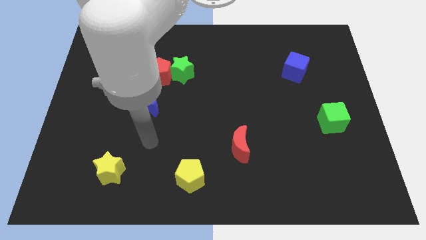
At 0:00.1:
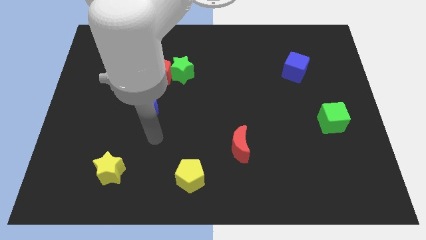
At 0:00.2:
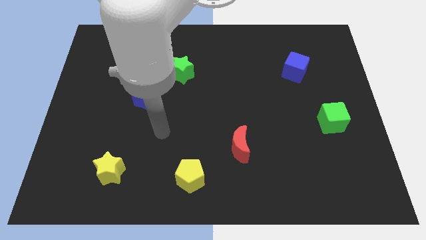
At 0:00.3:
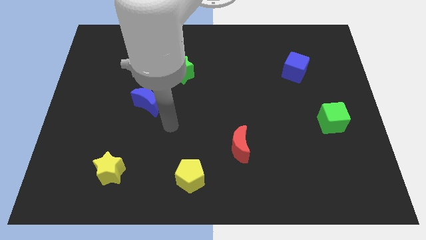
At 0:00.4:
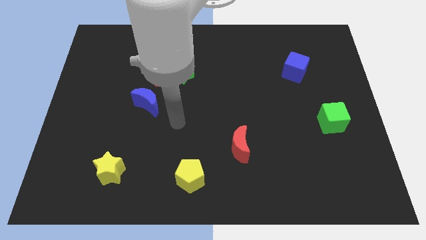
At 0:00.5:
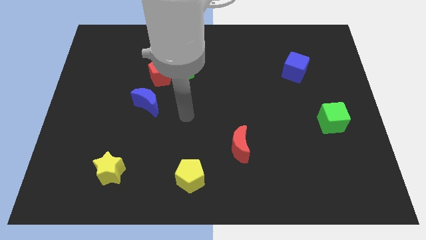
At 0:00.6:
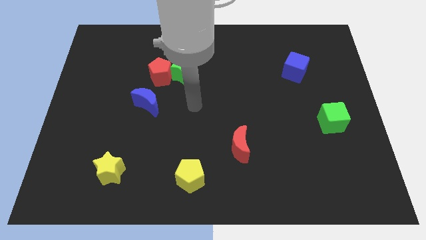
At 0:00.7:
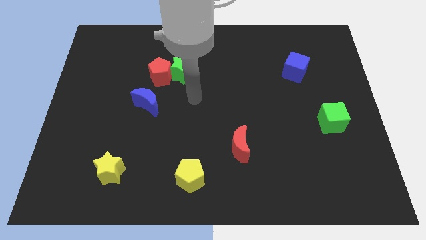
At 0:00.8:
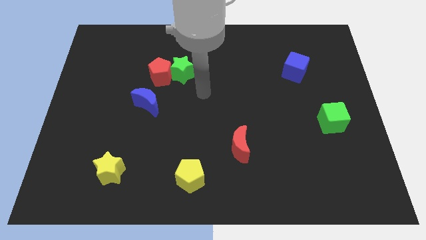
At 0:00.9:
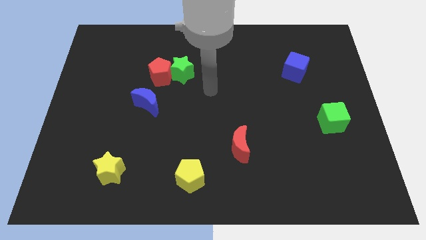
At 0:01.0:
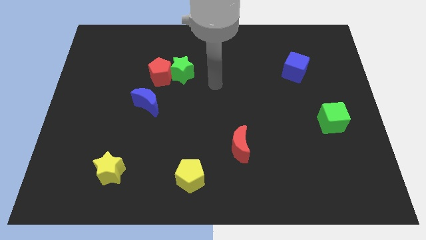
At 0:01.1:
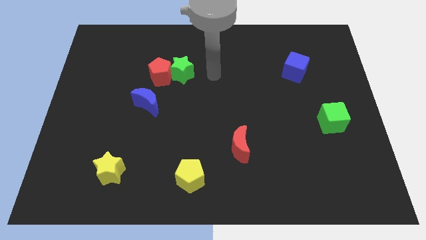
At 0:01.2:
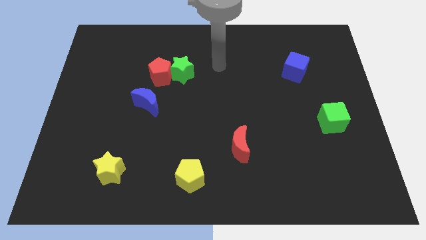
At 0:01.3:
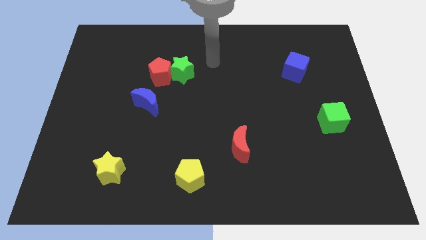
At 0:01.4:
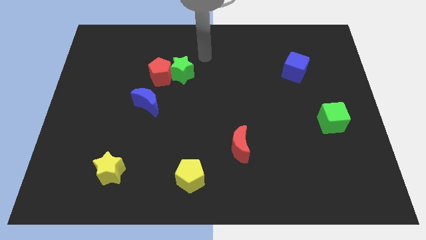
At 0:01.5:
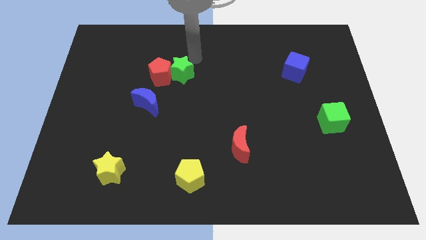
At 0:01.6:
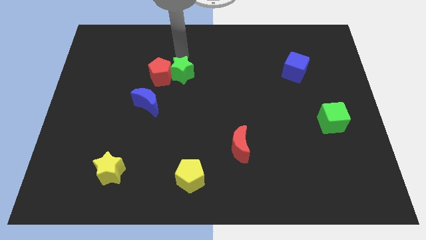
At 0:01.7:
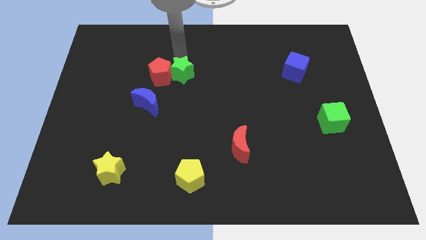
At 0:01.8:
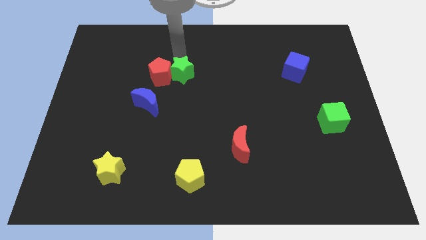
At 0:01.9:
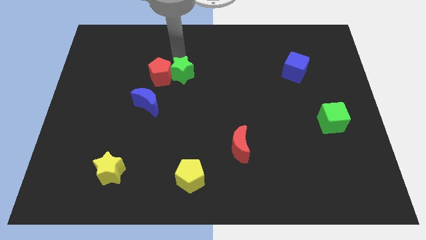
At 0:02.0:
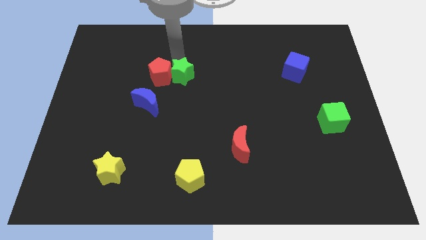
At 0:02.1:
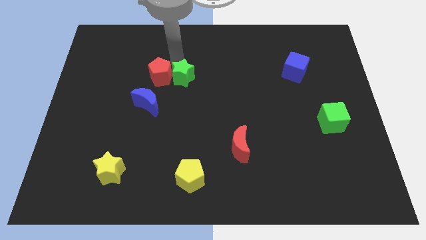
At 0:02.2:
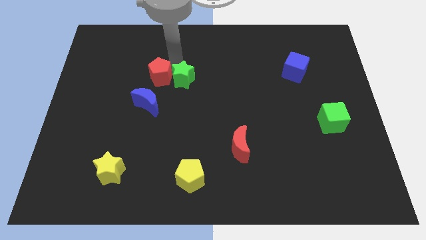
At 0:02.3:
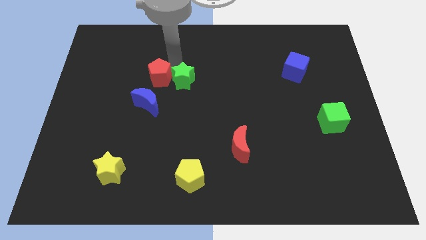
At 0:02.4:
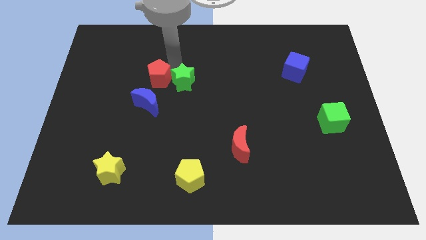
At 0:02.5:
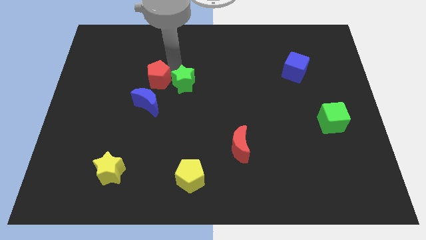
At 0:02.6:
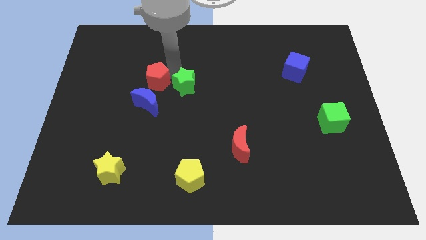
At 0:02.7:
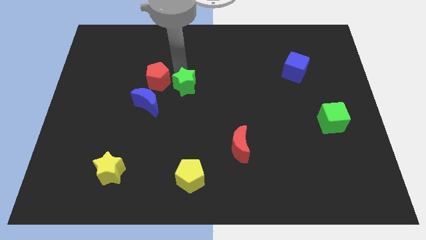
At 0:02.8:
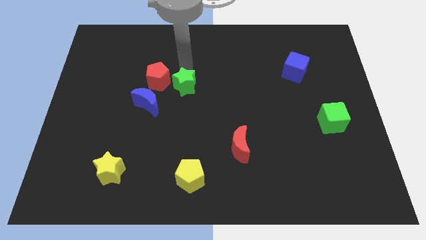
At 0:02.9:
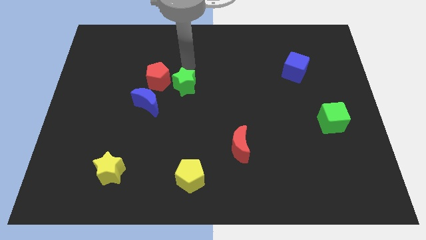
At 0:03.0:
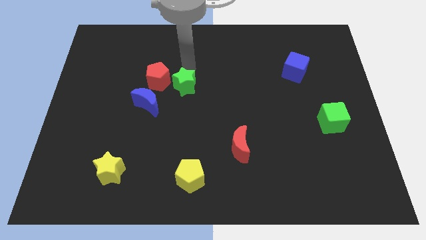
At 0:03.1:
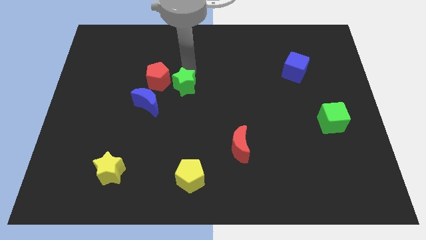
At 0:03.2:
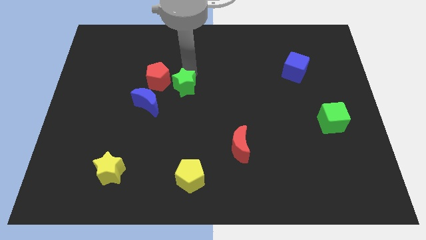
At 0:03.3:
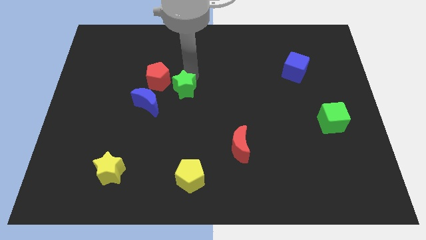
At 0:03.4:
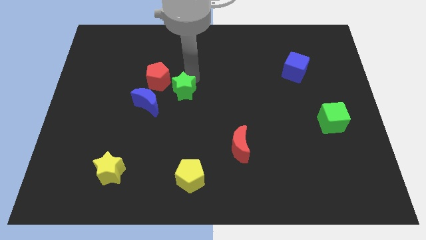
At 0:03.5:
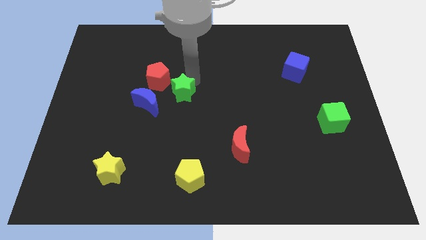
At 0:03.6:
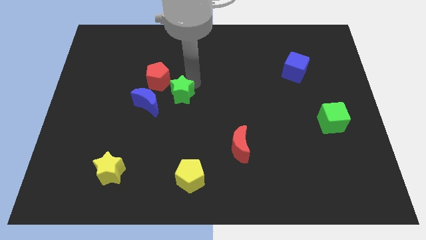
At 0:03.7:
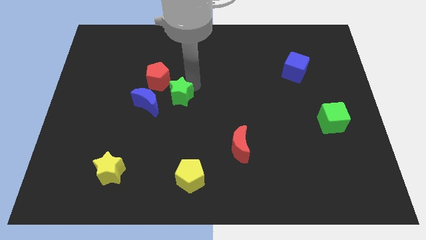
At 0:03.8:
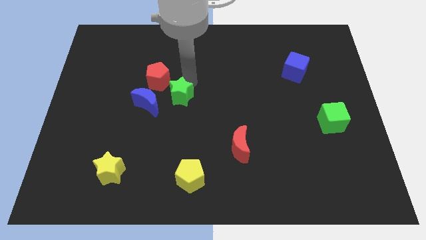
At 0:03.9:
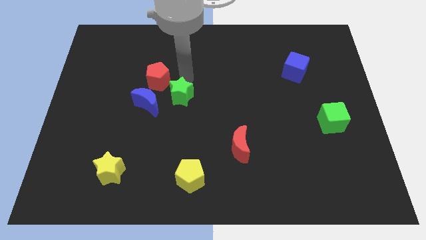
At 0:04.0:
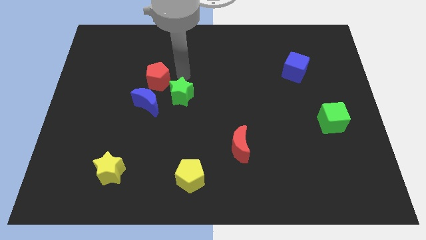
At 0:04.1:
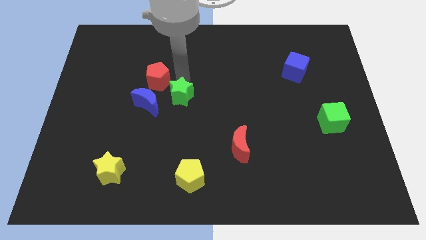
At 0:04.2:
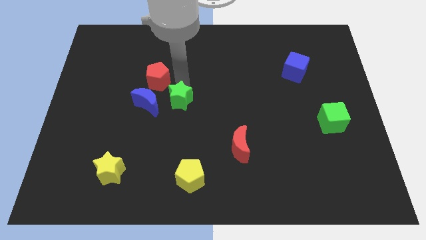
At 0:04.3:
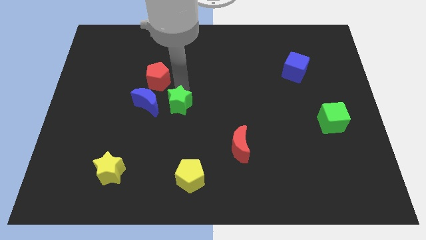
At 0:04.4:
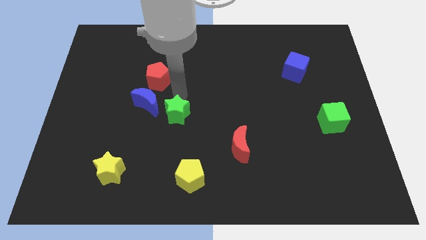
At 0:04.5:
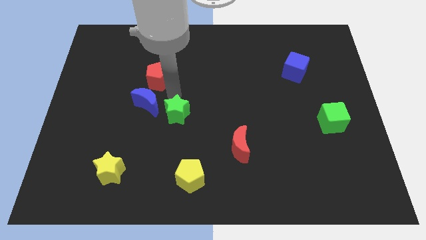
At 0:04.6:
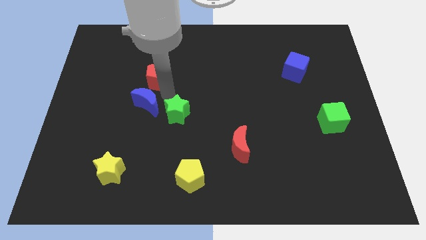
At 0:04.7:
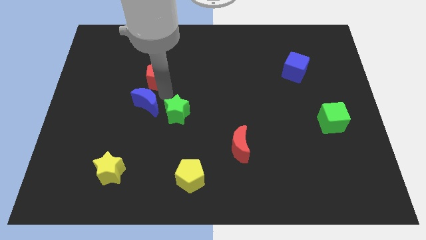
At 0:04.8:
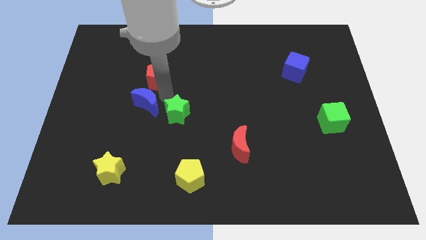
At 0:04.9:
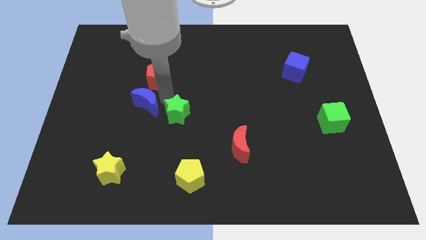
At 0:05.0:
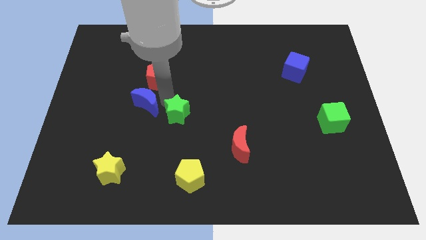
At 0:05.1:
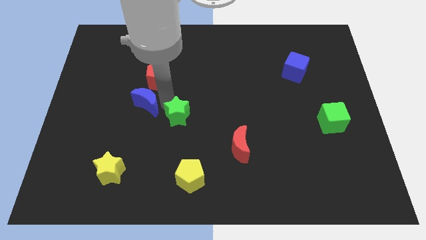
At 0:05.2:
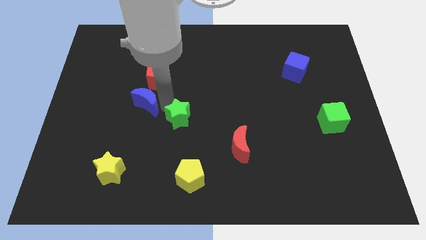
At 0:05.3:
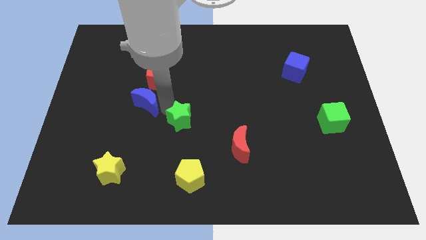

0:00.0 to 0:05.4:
slide the green star above the yellow pentagon

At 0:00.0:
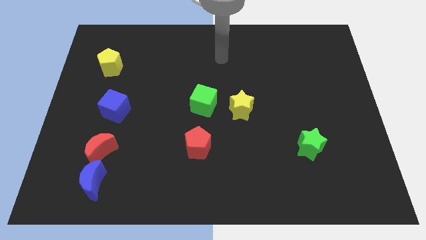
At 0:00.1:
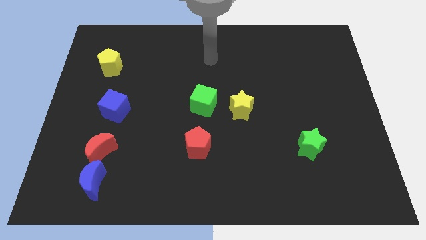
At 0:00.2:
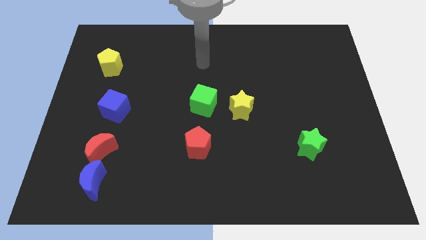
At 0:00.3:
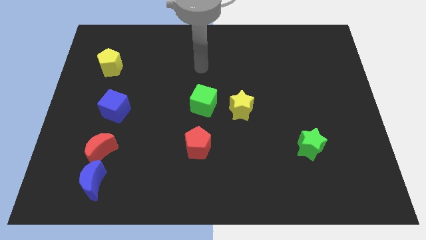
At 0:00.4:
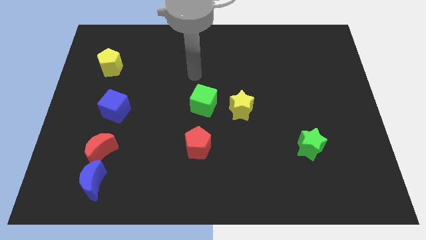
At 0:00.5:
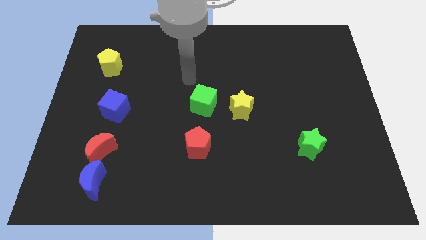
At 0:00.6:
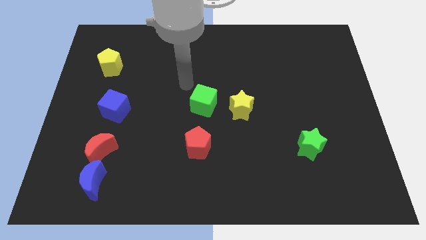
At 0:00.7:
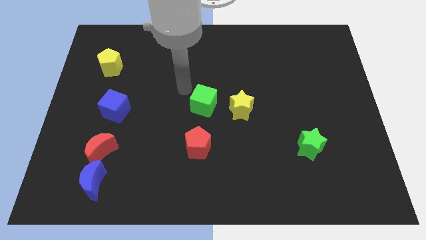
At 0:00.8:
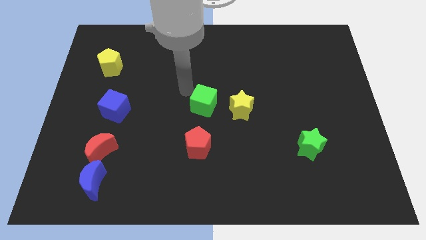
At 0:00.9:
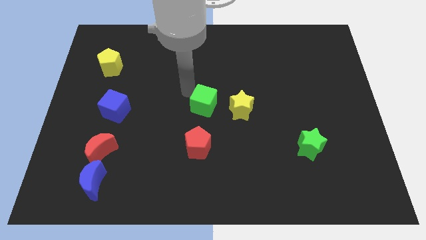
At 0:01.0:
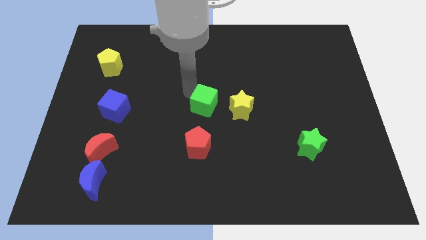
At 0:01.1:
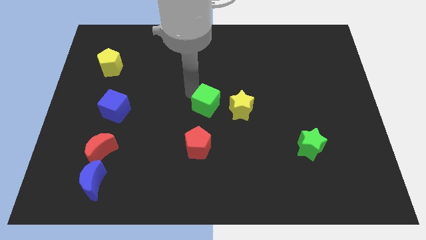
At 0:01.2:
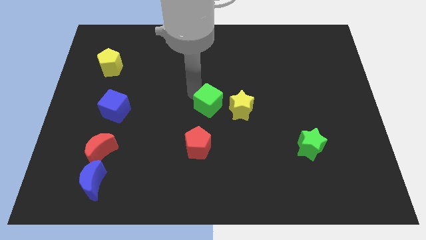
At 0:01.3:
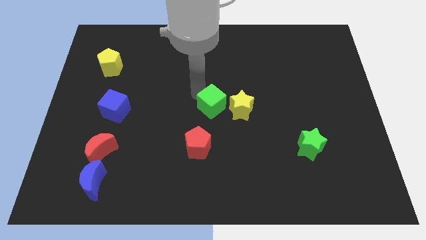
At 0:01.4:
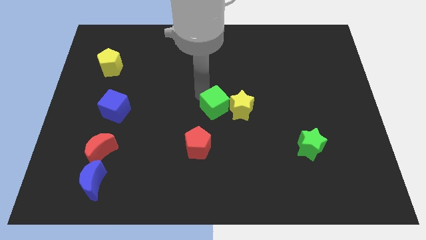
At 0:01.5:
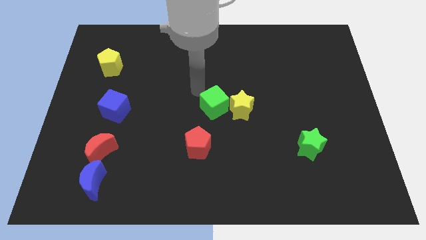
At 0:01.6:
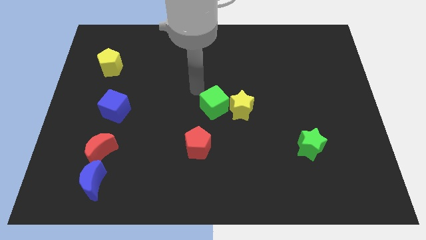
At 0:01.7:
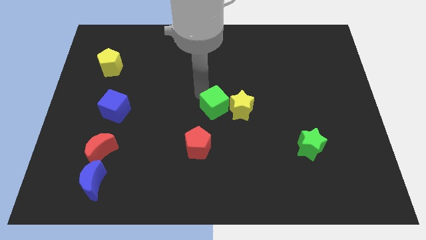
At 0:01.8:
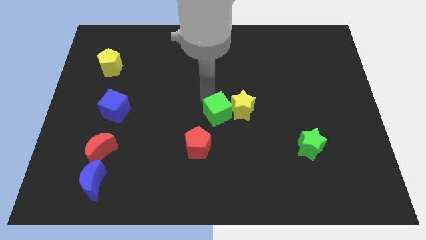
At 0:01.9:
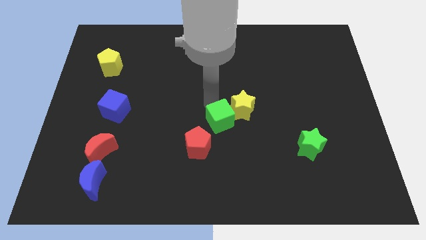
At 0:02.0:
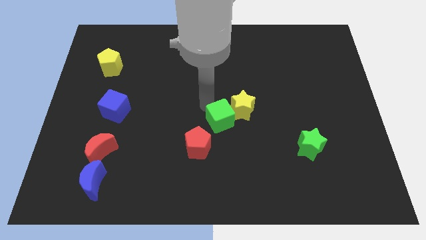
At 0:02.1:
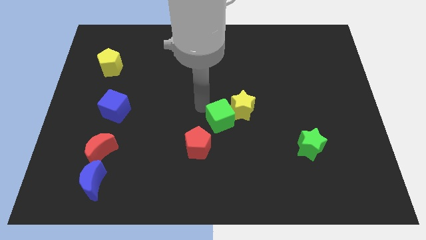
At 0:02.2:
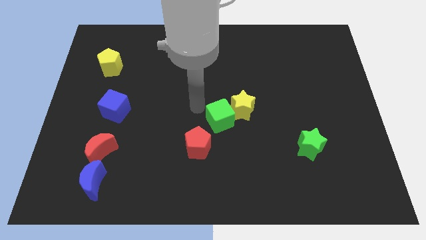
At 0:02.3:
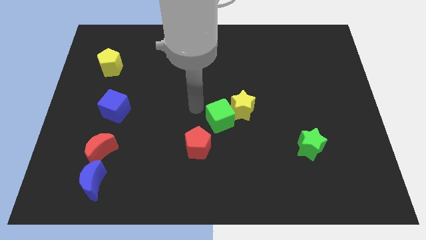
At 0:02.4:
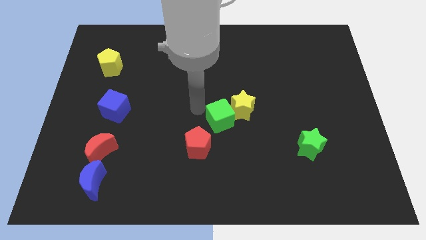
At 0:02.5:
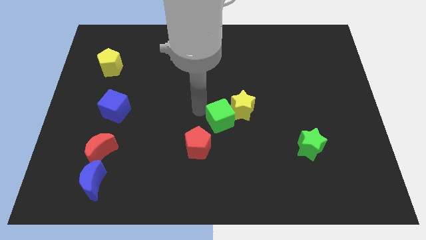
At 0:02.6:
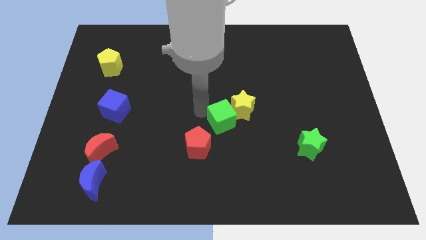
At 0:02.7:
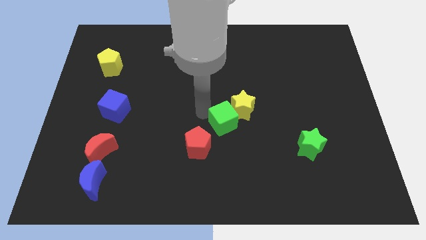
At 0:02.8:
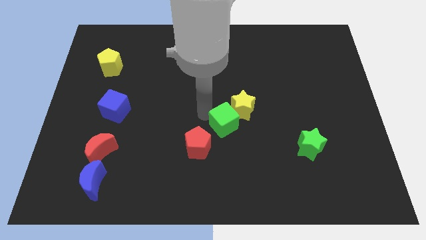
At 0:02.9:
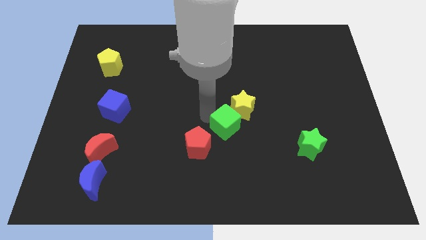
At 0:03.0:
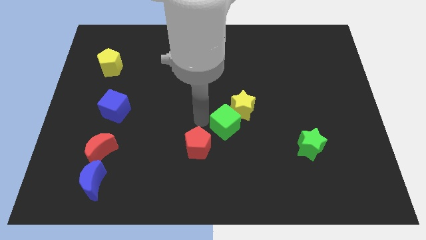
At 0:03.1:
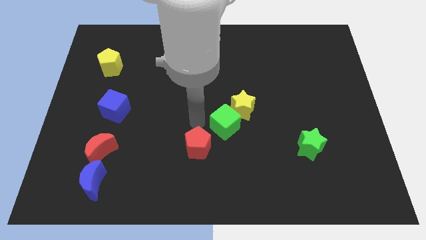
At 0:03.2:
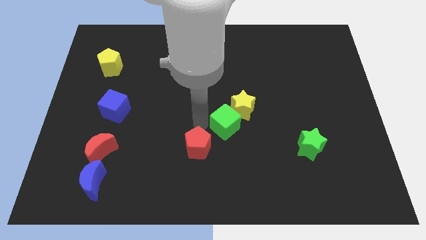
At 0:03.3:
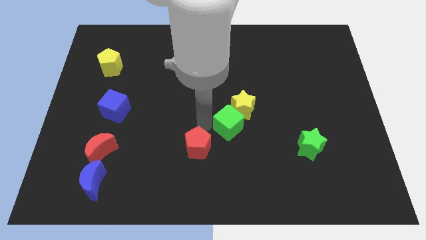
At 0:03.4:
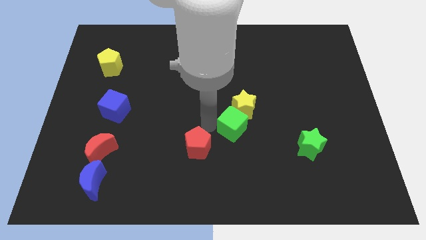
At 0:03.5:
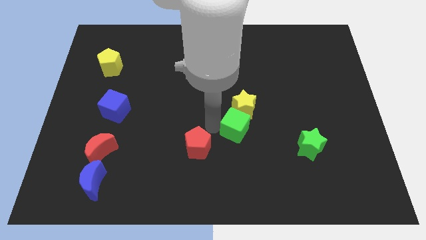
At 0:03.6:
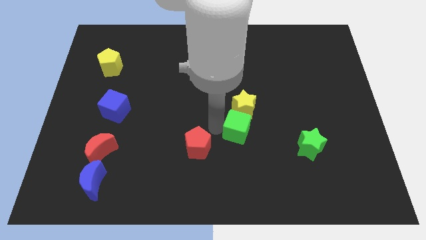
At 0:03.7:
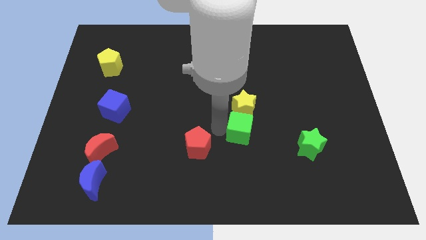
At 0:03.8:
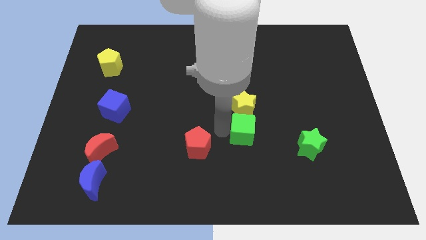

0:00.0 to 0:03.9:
put the green cube diagonally down and to the right of the yellow star
